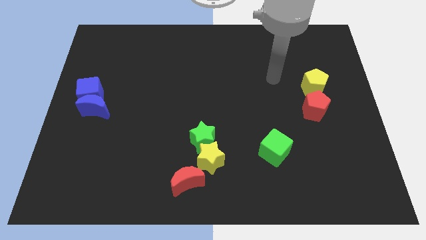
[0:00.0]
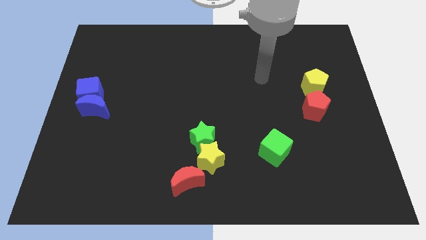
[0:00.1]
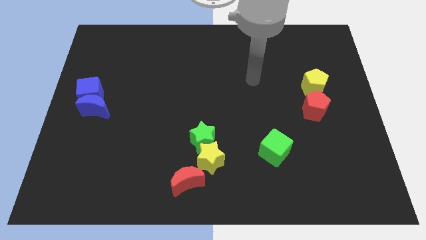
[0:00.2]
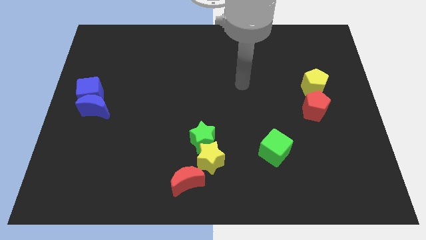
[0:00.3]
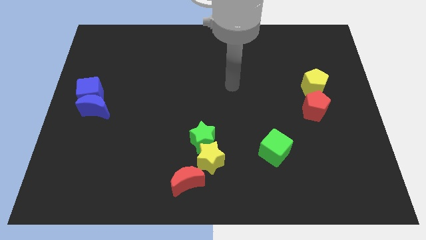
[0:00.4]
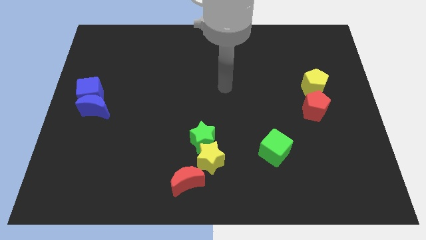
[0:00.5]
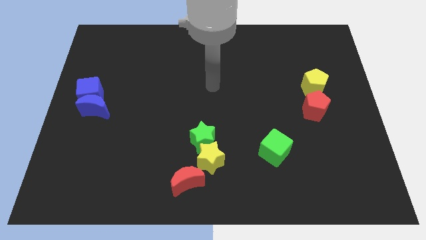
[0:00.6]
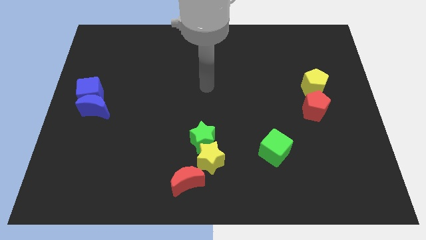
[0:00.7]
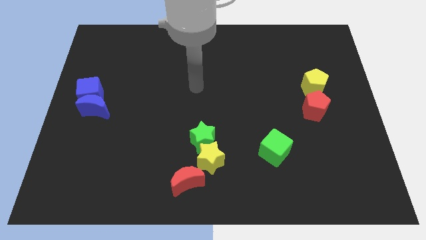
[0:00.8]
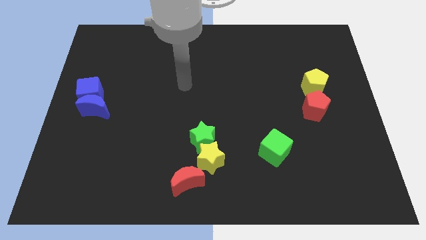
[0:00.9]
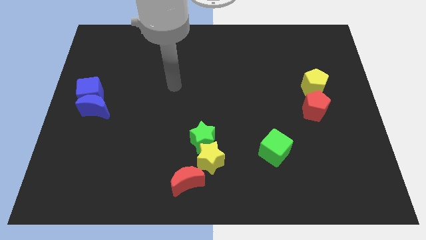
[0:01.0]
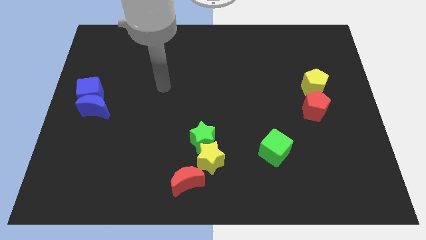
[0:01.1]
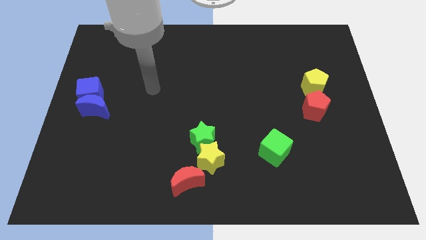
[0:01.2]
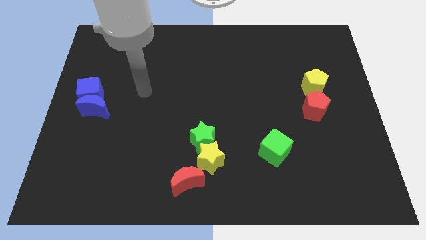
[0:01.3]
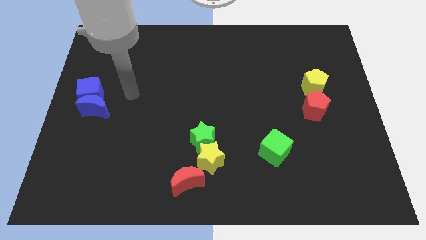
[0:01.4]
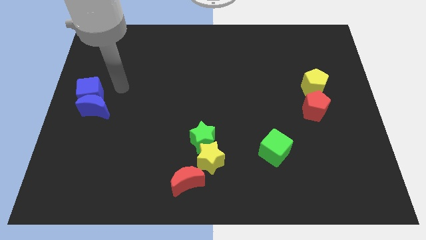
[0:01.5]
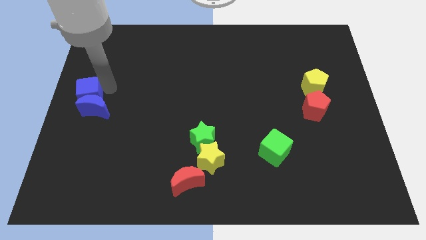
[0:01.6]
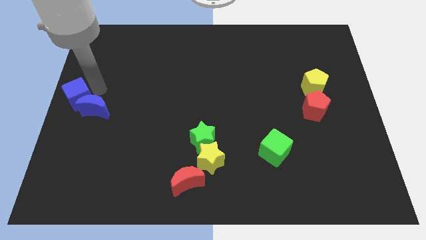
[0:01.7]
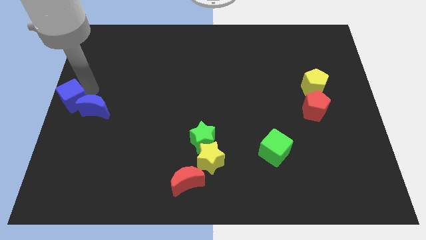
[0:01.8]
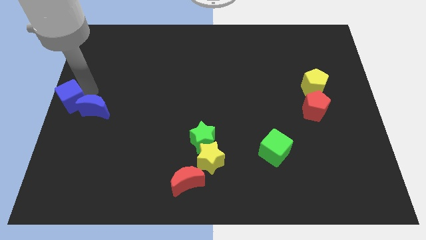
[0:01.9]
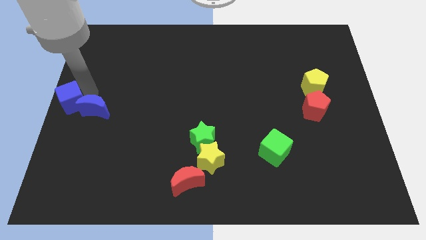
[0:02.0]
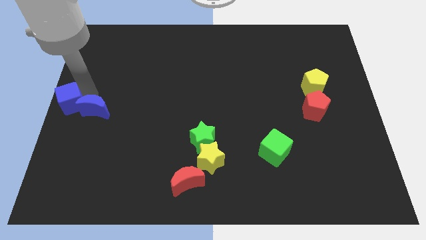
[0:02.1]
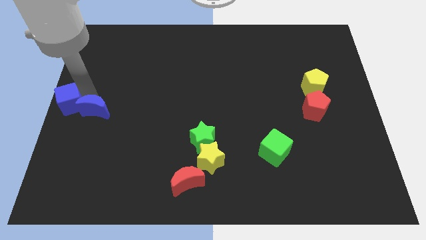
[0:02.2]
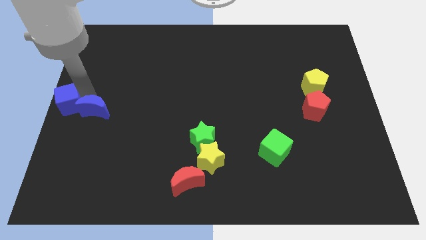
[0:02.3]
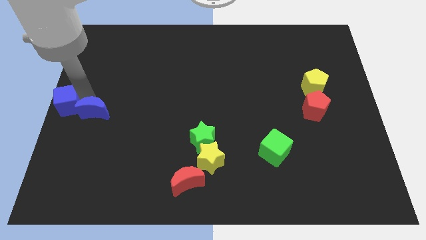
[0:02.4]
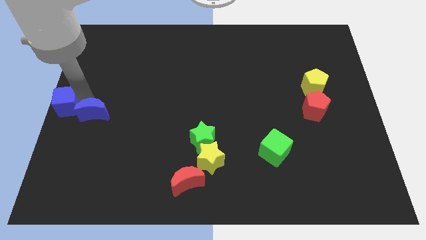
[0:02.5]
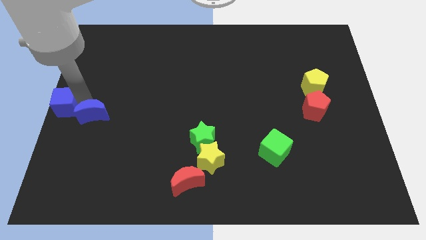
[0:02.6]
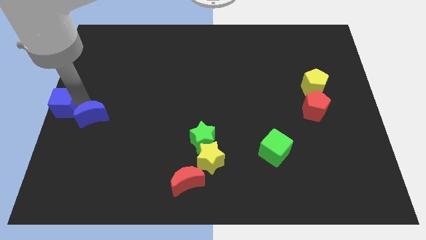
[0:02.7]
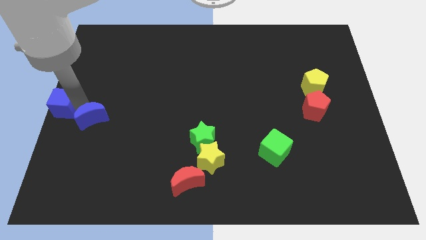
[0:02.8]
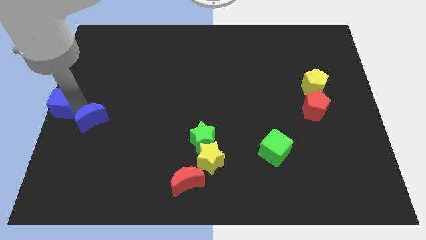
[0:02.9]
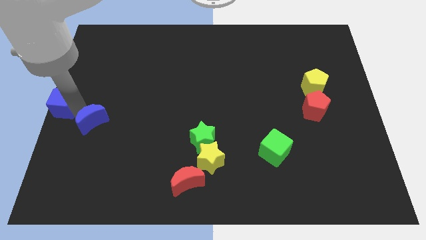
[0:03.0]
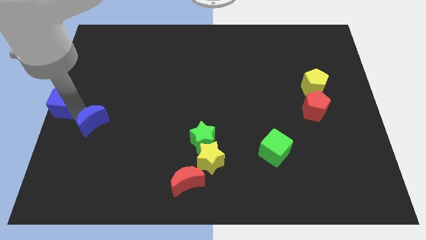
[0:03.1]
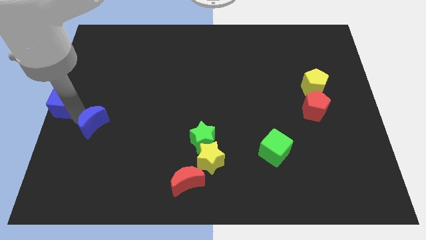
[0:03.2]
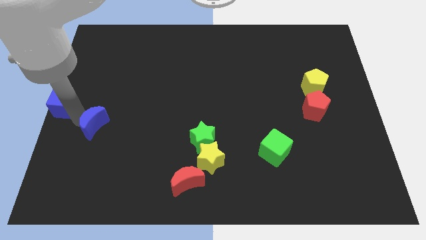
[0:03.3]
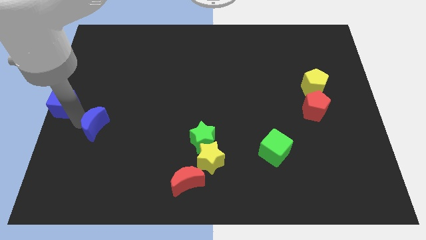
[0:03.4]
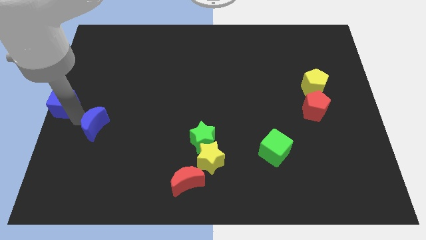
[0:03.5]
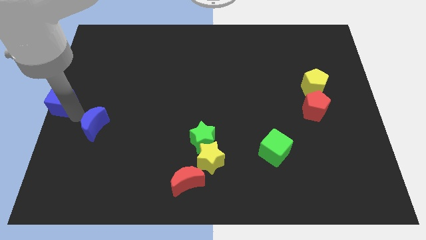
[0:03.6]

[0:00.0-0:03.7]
separate the blue moon from the blue cube

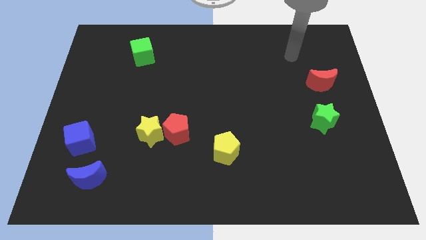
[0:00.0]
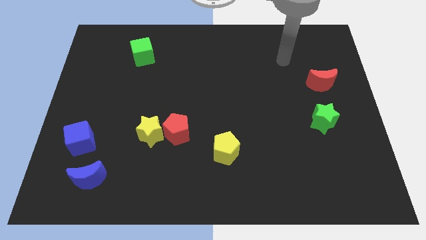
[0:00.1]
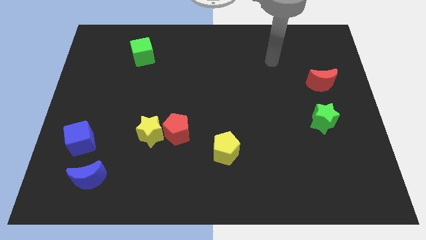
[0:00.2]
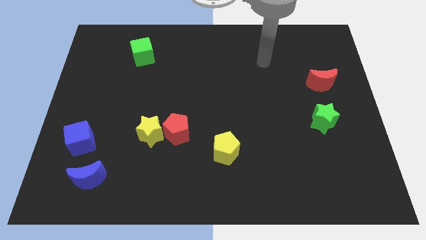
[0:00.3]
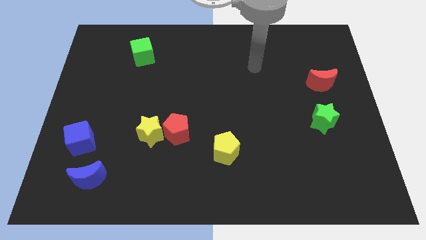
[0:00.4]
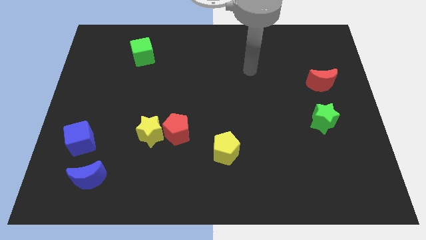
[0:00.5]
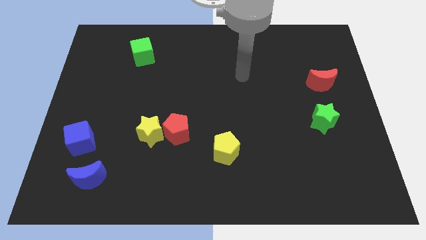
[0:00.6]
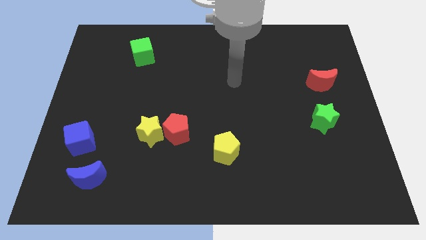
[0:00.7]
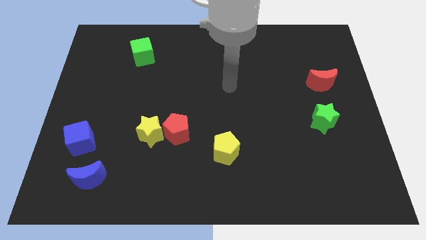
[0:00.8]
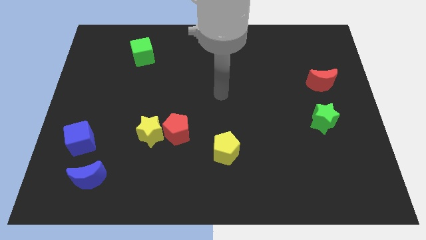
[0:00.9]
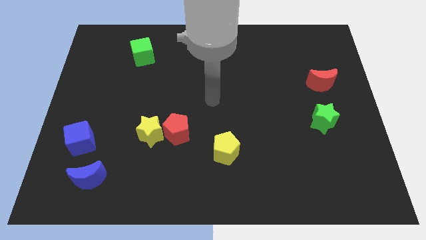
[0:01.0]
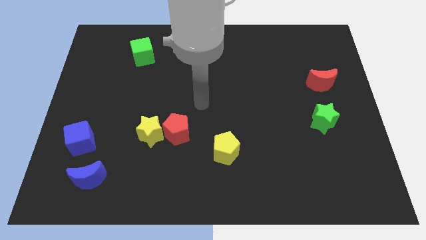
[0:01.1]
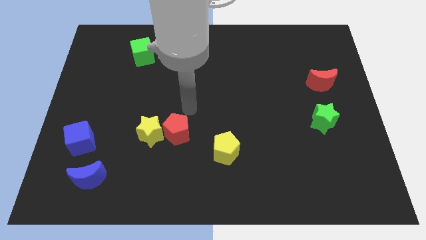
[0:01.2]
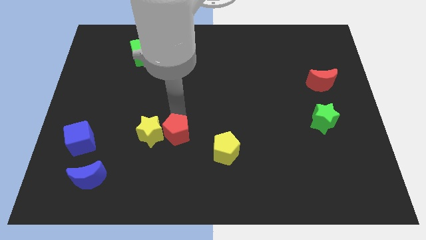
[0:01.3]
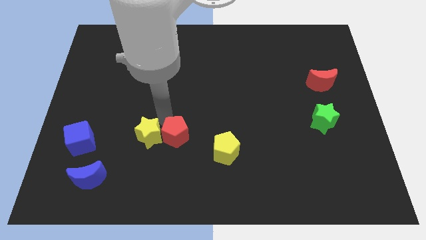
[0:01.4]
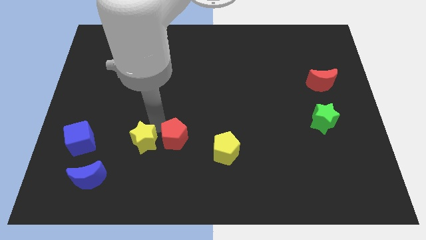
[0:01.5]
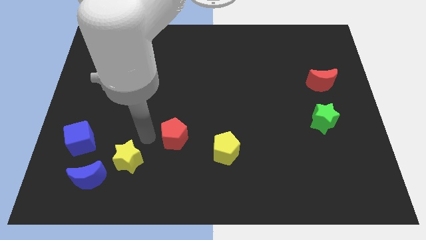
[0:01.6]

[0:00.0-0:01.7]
pull the red pentagon apart from the yellow star

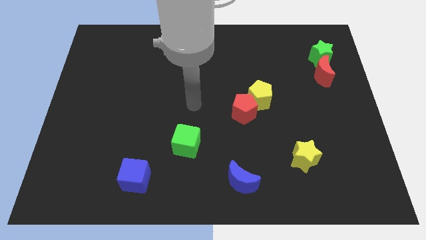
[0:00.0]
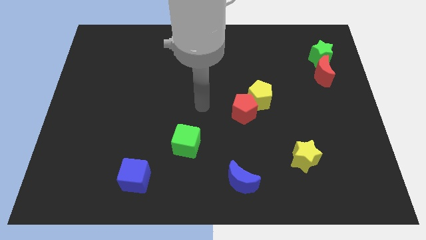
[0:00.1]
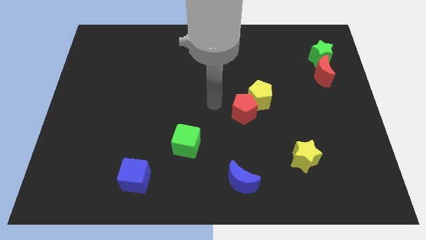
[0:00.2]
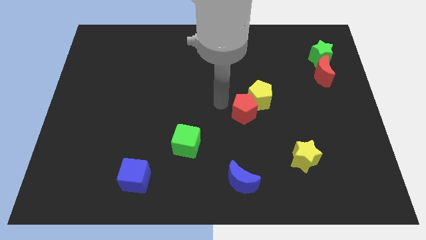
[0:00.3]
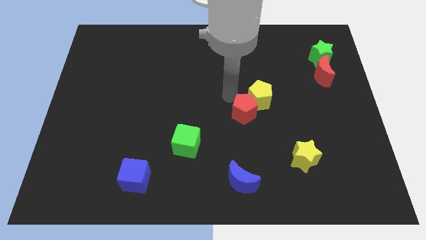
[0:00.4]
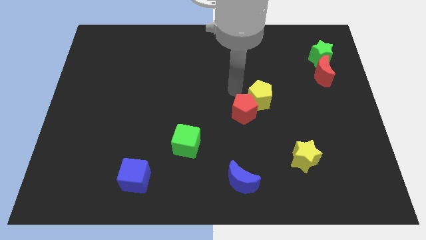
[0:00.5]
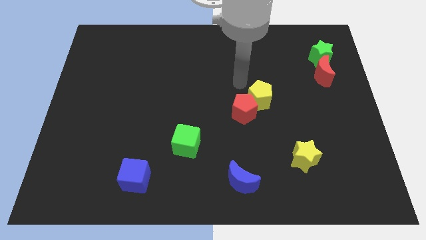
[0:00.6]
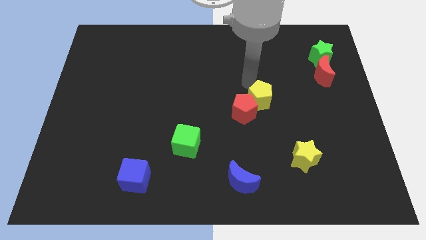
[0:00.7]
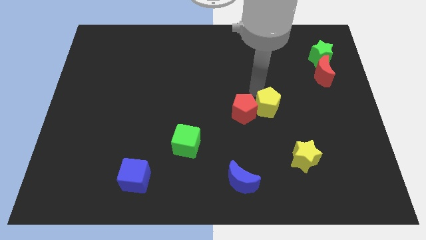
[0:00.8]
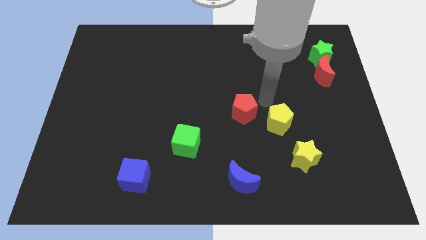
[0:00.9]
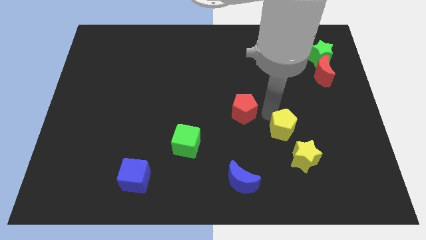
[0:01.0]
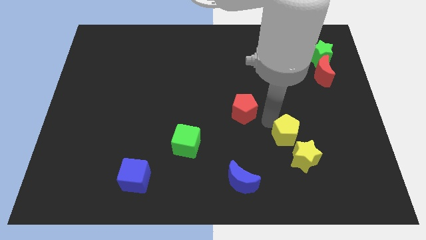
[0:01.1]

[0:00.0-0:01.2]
separate the red pentagon from the yellow pentagon

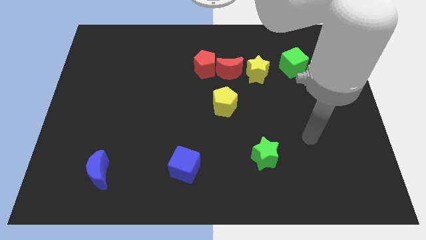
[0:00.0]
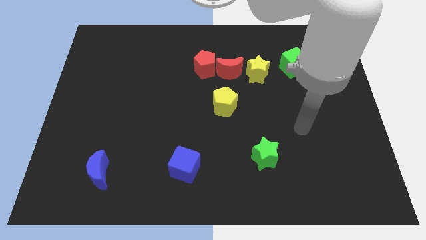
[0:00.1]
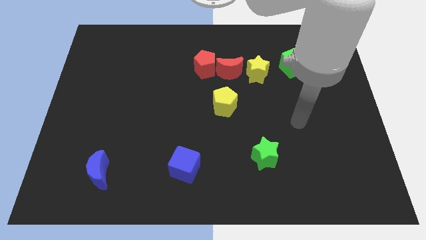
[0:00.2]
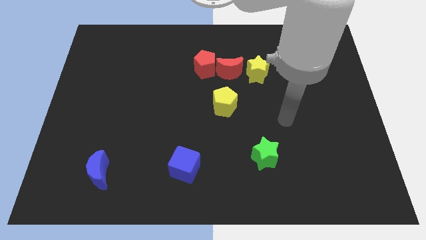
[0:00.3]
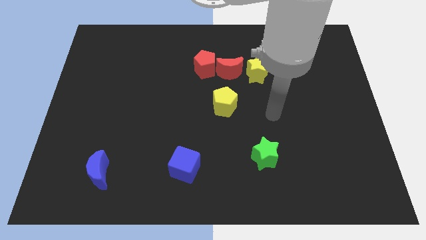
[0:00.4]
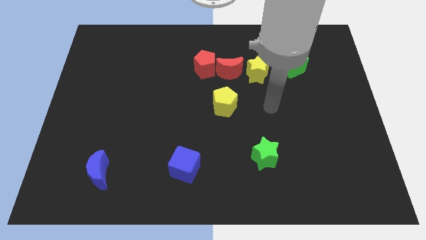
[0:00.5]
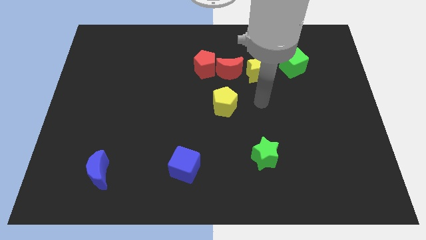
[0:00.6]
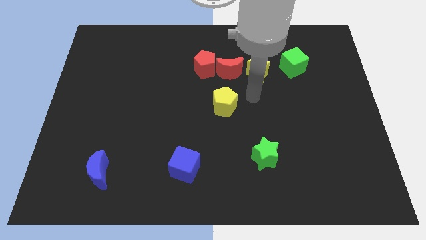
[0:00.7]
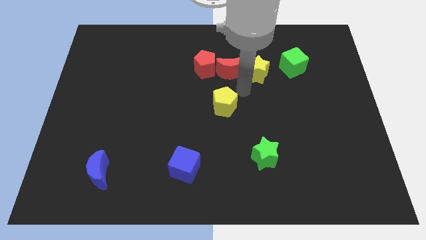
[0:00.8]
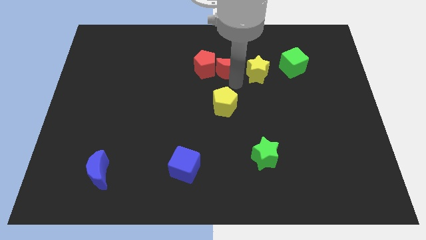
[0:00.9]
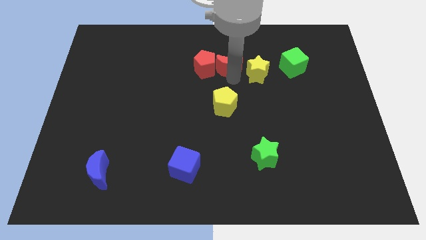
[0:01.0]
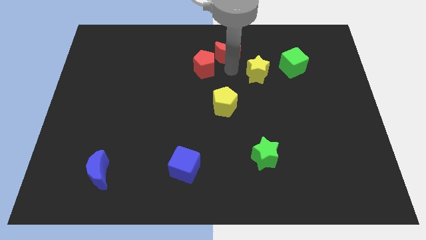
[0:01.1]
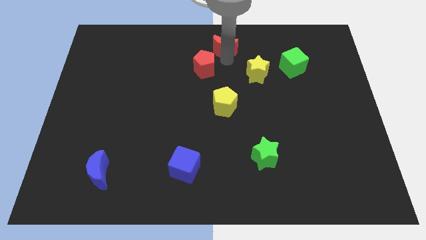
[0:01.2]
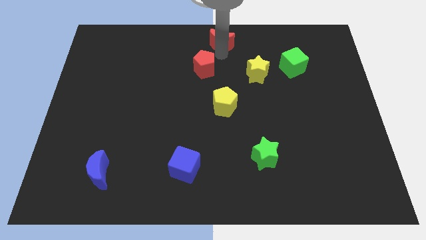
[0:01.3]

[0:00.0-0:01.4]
move the red pentagon away from the red moon

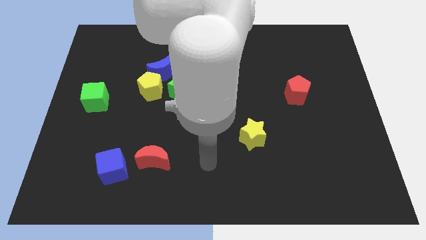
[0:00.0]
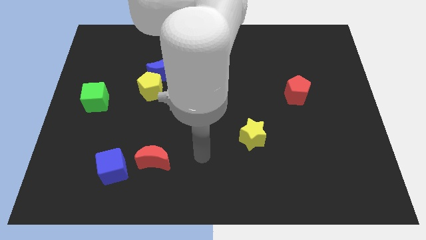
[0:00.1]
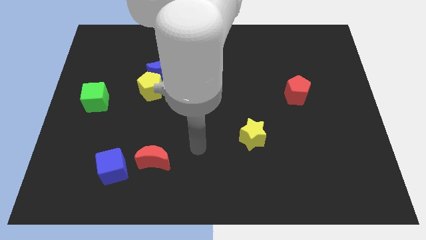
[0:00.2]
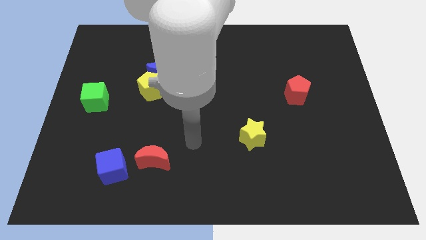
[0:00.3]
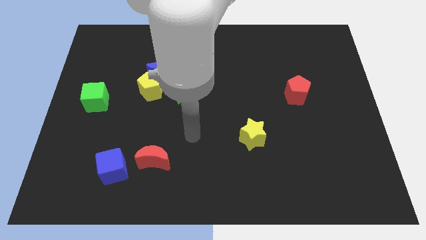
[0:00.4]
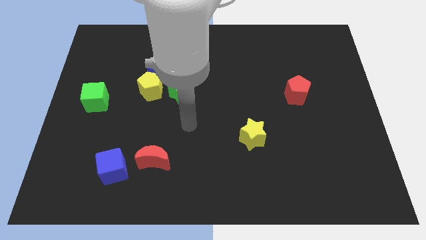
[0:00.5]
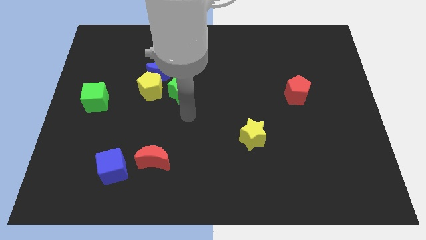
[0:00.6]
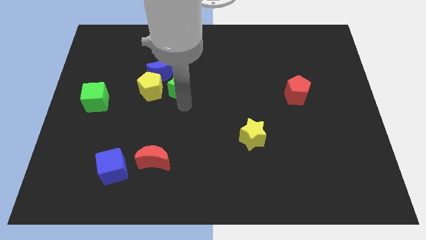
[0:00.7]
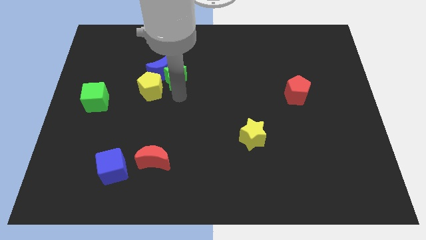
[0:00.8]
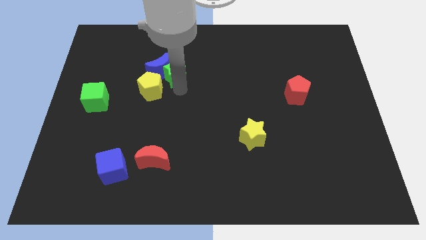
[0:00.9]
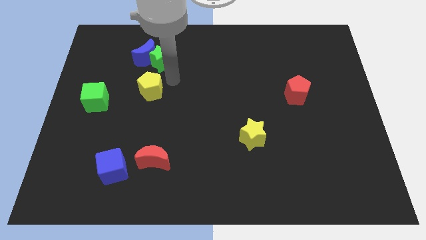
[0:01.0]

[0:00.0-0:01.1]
pull the yellow pentagon apart from the blue moon and green star

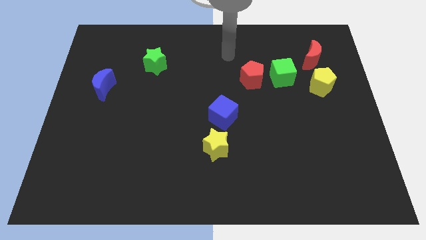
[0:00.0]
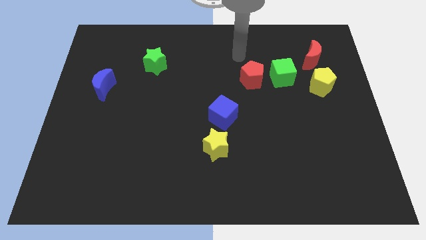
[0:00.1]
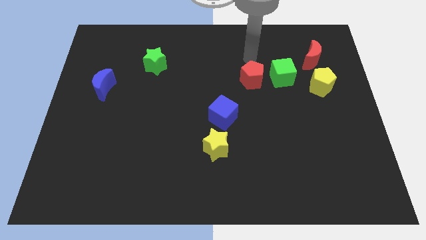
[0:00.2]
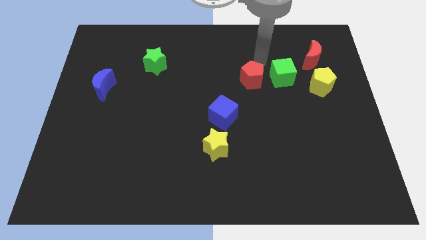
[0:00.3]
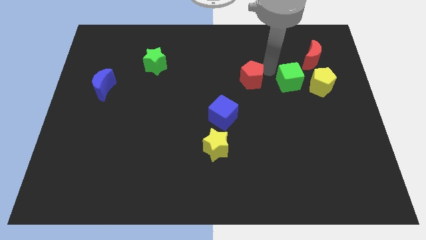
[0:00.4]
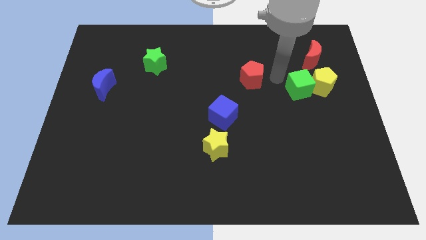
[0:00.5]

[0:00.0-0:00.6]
move the red pentagon away from the green cube
